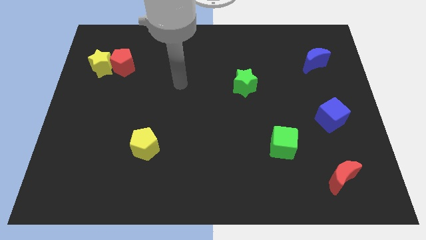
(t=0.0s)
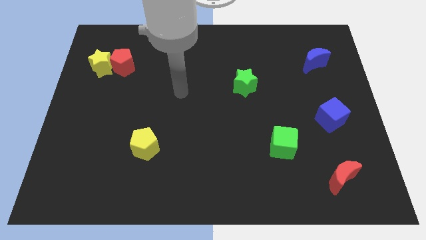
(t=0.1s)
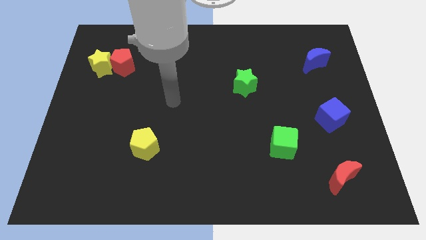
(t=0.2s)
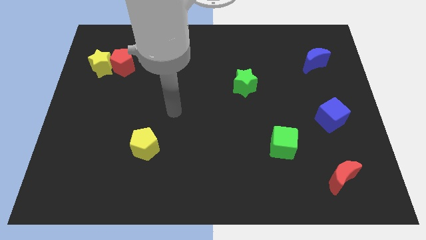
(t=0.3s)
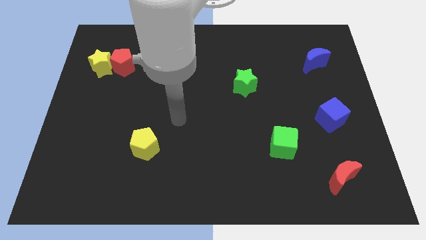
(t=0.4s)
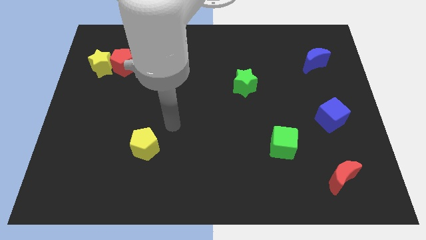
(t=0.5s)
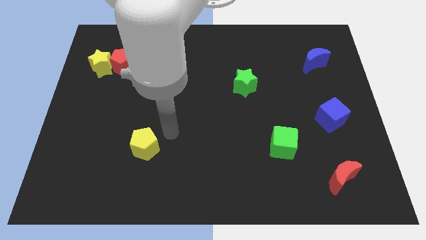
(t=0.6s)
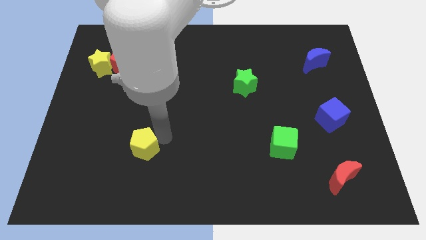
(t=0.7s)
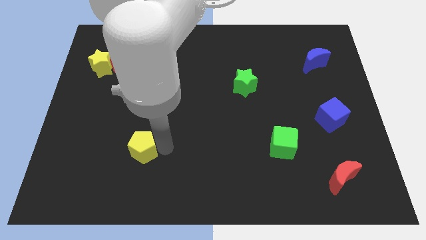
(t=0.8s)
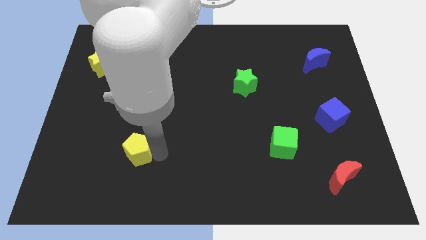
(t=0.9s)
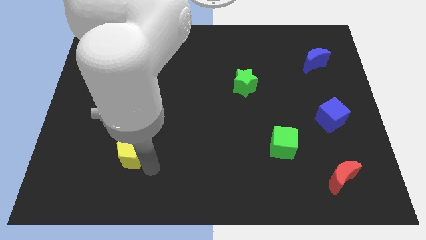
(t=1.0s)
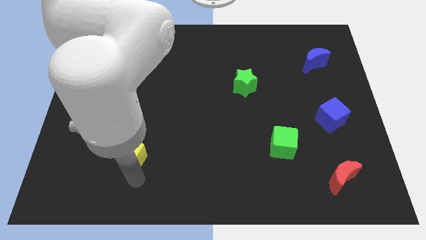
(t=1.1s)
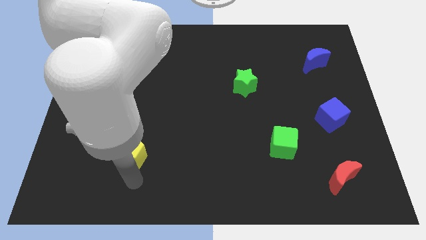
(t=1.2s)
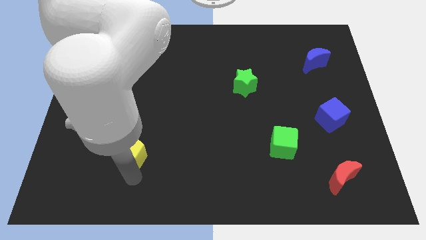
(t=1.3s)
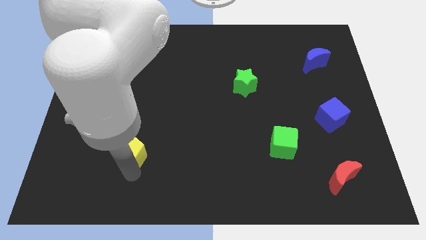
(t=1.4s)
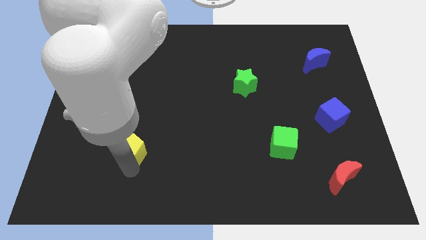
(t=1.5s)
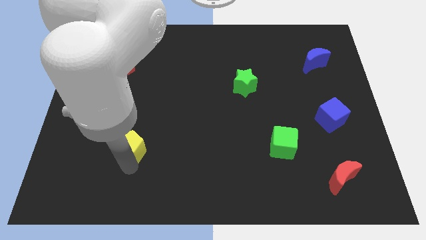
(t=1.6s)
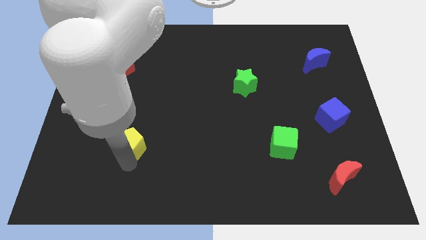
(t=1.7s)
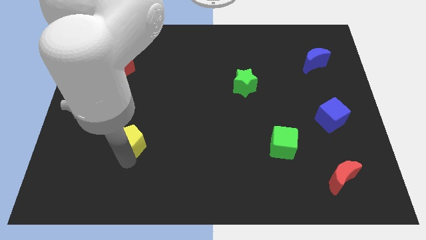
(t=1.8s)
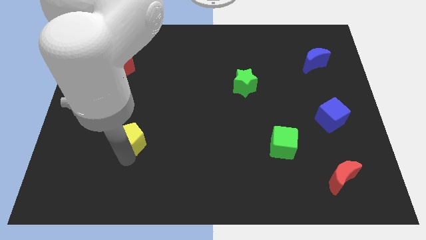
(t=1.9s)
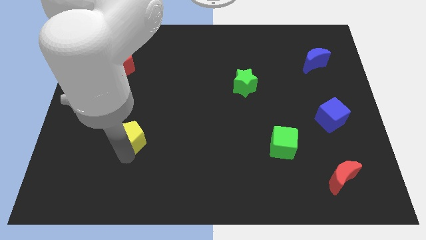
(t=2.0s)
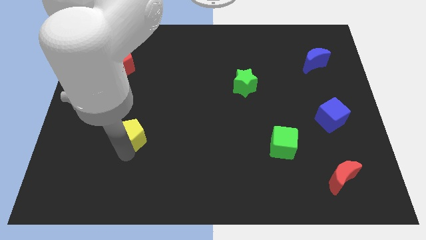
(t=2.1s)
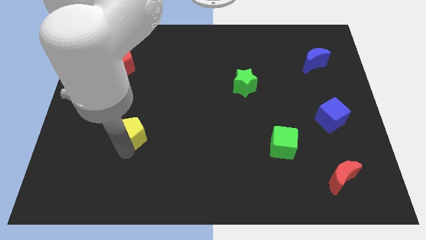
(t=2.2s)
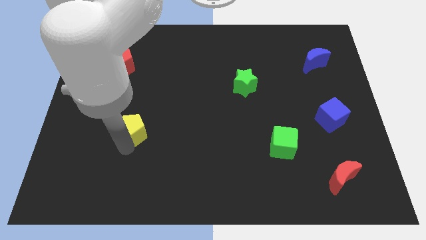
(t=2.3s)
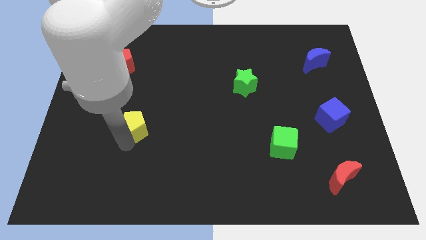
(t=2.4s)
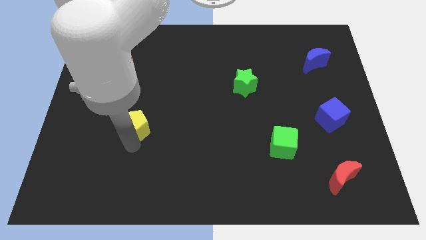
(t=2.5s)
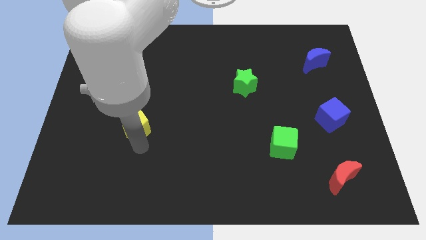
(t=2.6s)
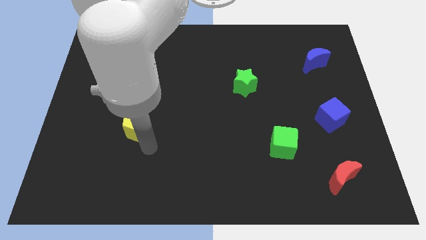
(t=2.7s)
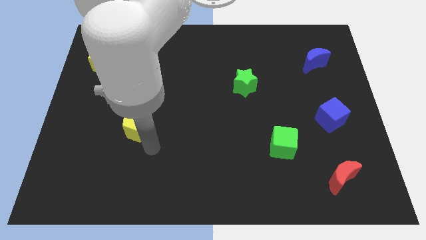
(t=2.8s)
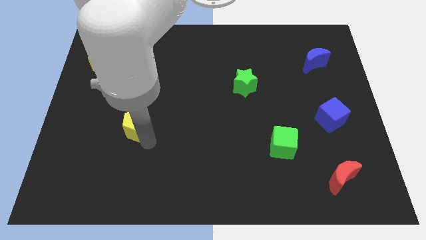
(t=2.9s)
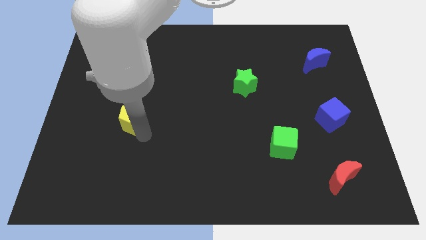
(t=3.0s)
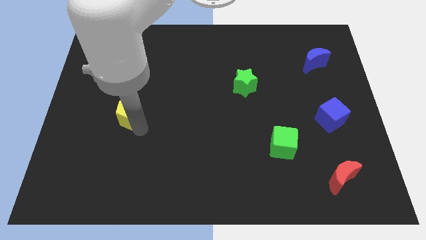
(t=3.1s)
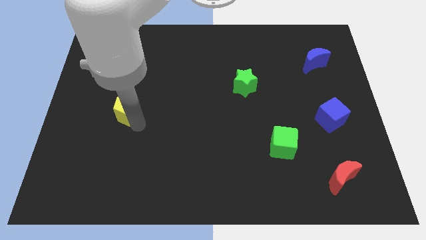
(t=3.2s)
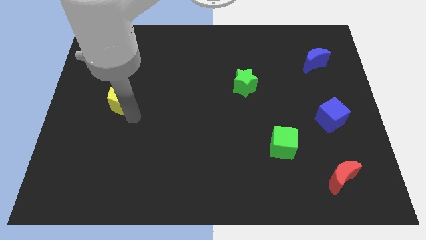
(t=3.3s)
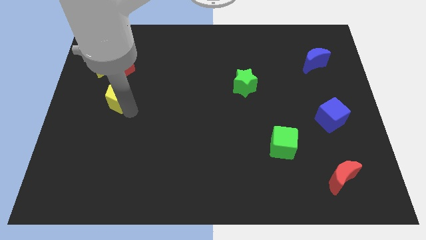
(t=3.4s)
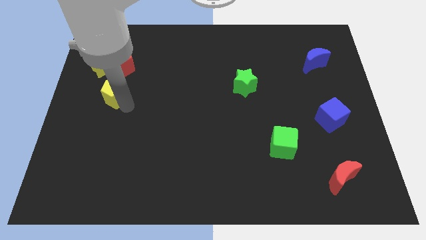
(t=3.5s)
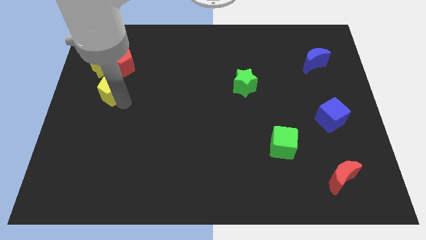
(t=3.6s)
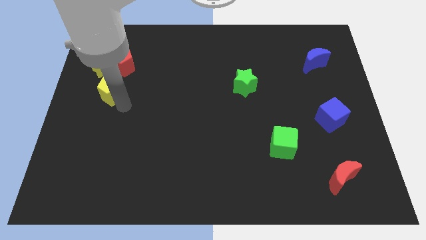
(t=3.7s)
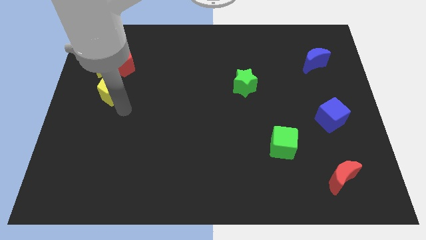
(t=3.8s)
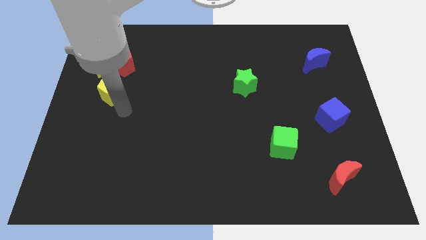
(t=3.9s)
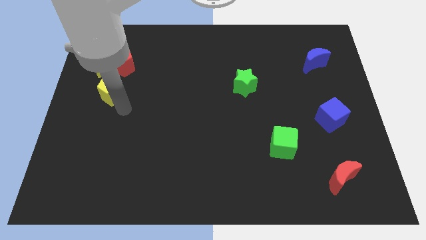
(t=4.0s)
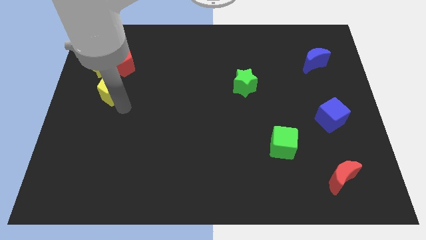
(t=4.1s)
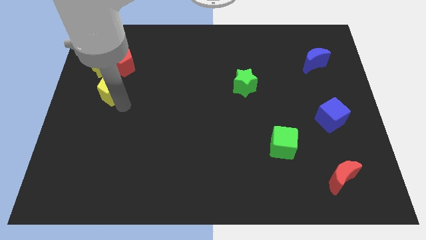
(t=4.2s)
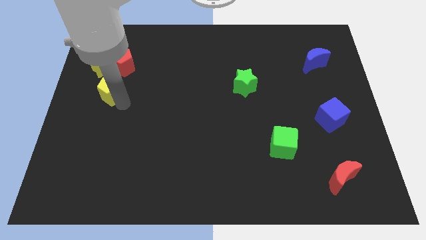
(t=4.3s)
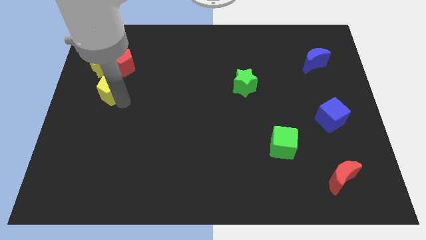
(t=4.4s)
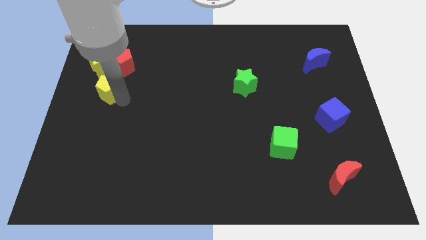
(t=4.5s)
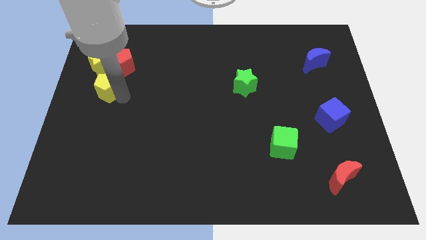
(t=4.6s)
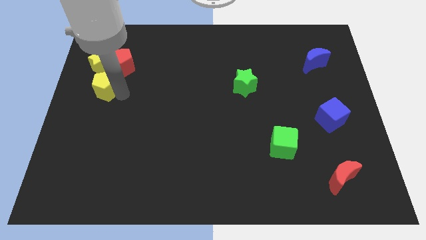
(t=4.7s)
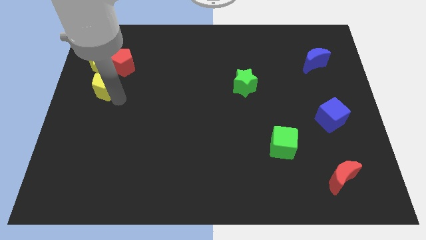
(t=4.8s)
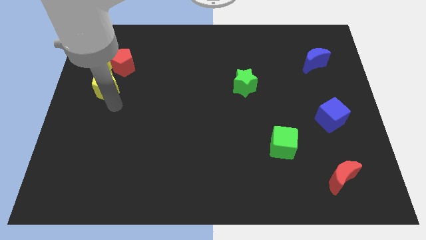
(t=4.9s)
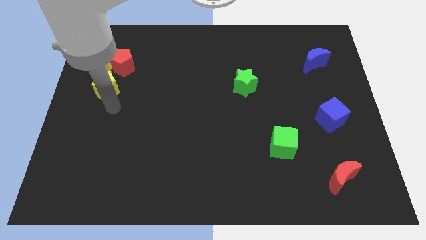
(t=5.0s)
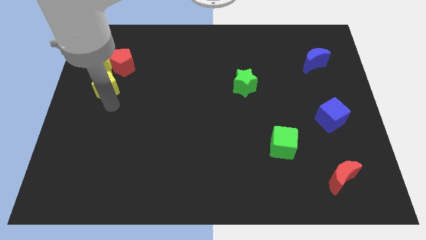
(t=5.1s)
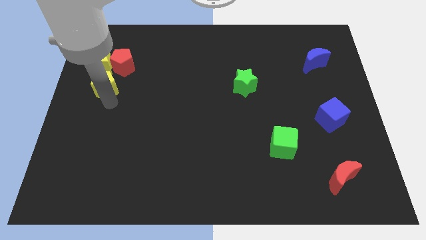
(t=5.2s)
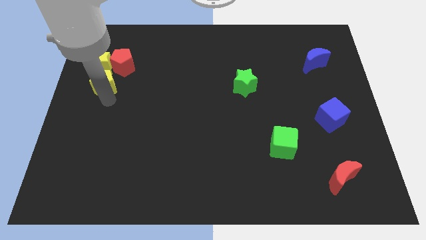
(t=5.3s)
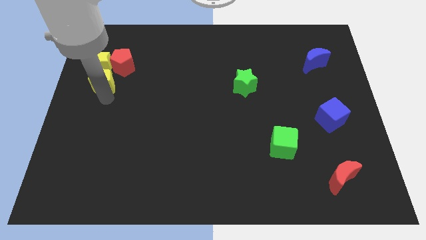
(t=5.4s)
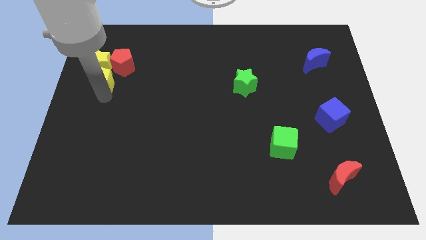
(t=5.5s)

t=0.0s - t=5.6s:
slide the yellow pentagon towards the yellow star

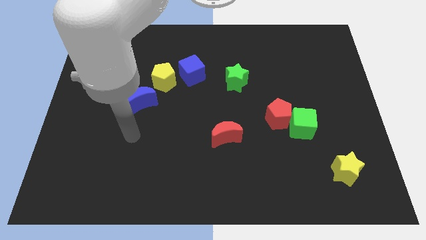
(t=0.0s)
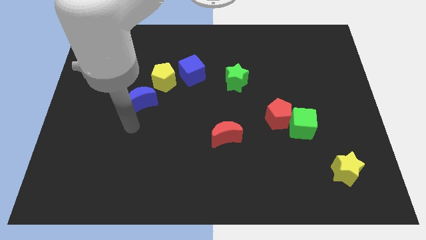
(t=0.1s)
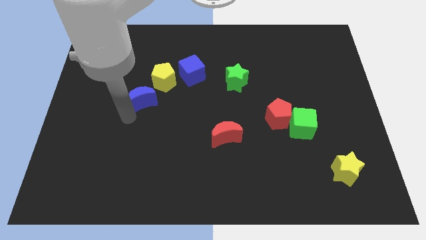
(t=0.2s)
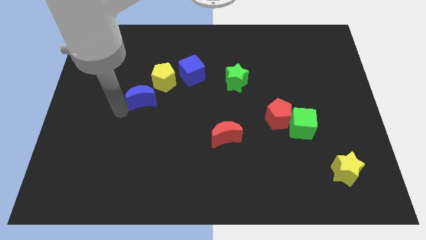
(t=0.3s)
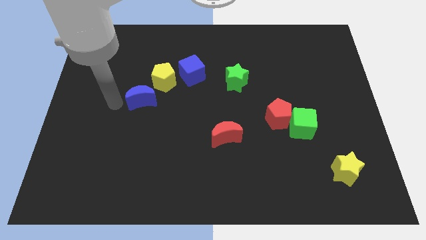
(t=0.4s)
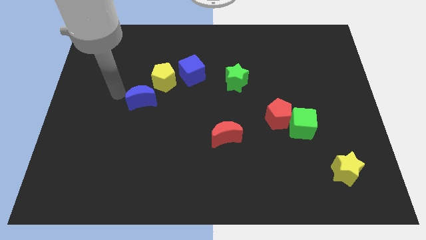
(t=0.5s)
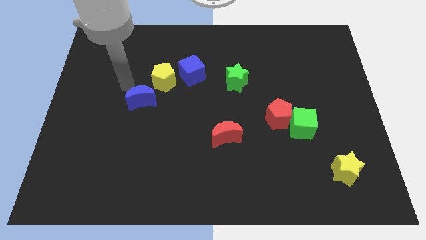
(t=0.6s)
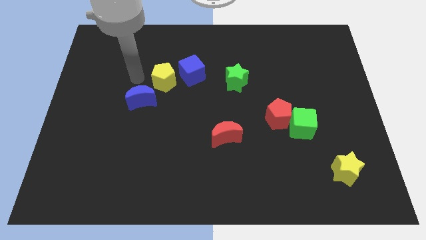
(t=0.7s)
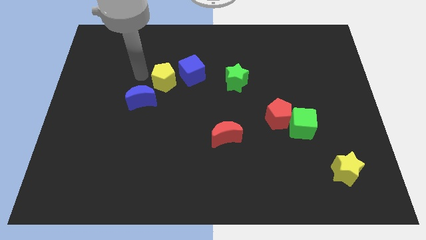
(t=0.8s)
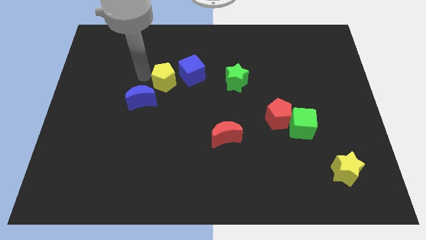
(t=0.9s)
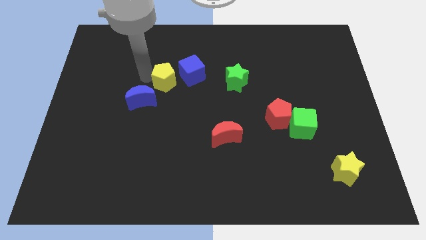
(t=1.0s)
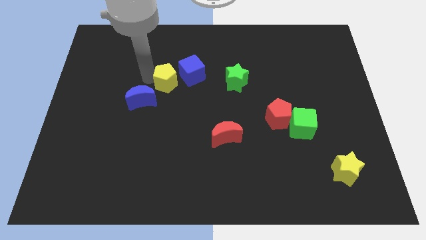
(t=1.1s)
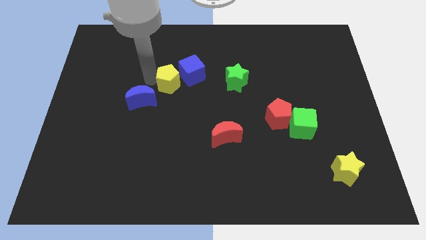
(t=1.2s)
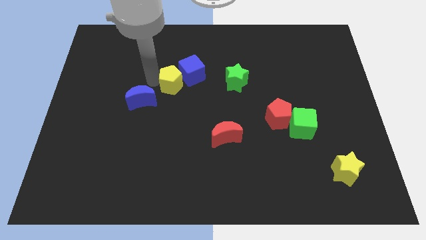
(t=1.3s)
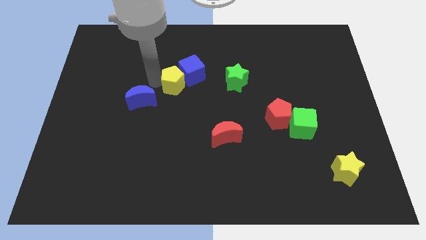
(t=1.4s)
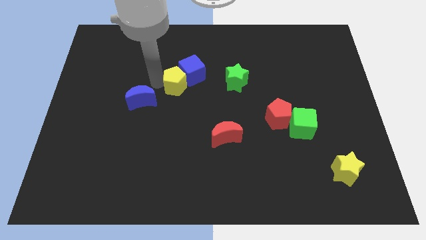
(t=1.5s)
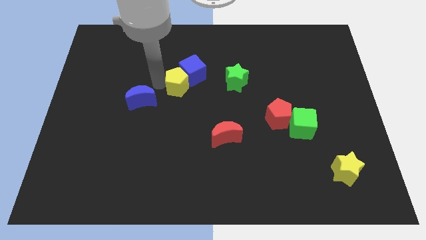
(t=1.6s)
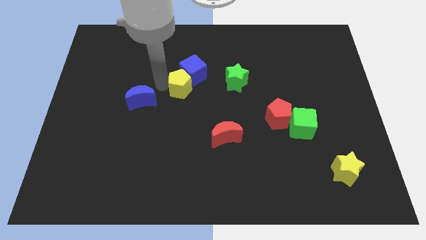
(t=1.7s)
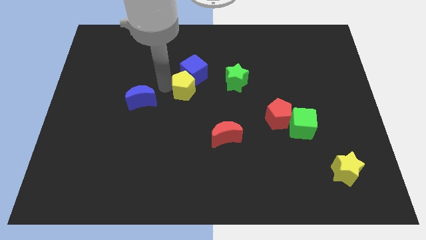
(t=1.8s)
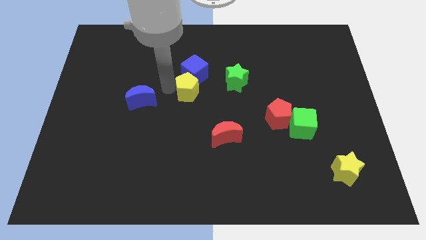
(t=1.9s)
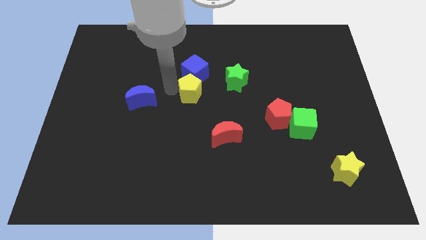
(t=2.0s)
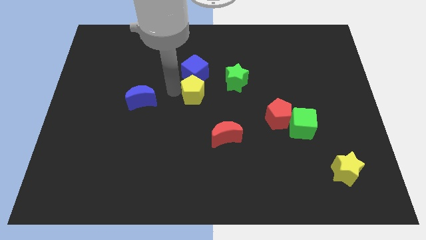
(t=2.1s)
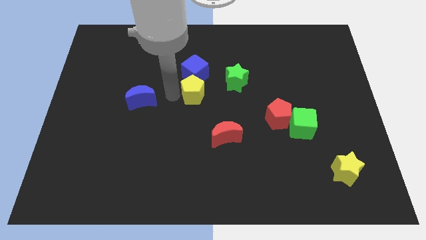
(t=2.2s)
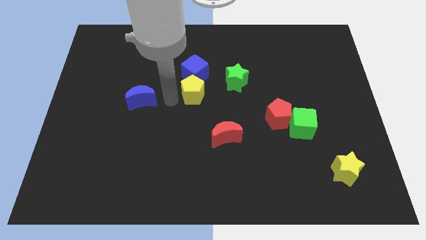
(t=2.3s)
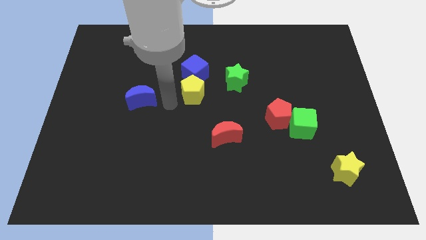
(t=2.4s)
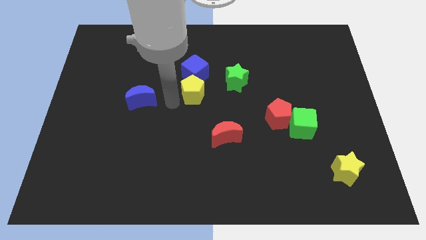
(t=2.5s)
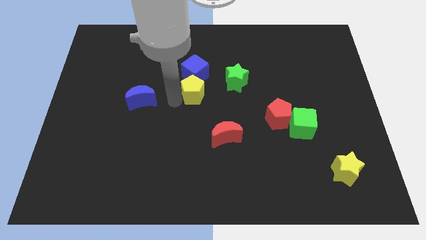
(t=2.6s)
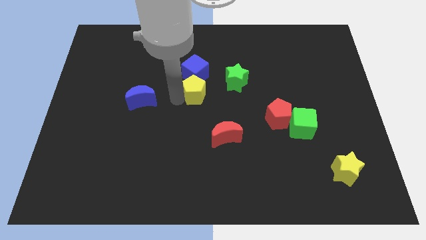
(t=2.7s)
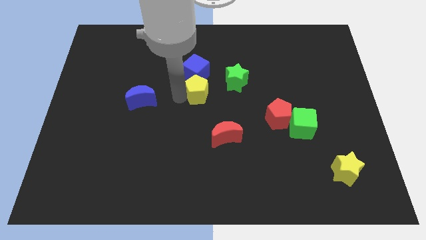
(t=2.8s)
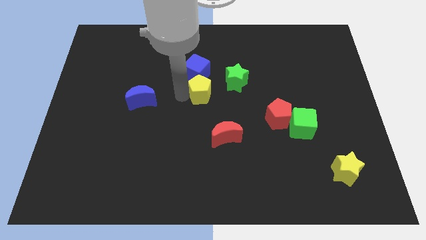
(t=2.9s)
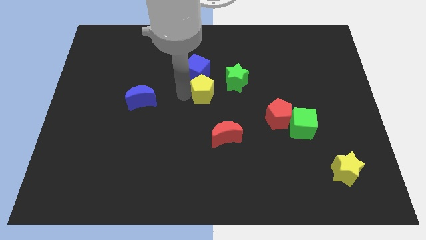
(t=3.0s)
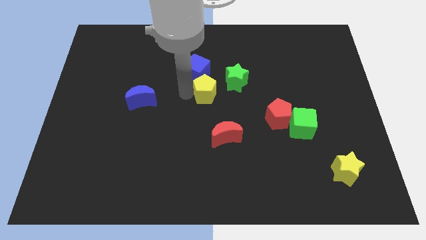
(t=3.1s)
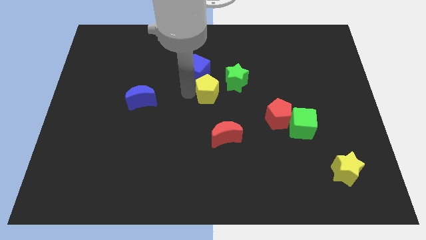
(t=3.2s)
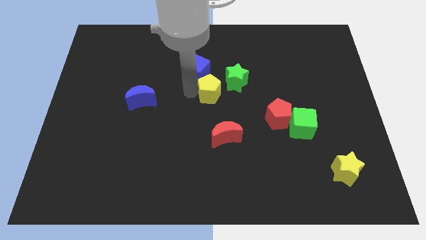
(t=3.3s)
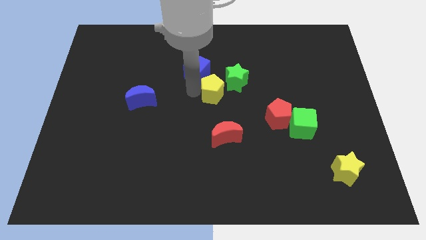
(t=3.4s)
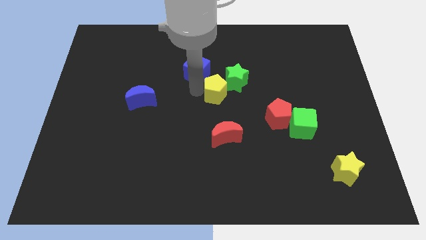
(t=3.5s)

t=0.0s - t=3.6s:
push the yellow pentagon towards the green star
